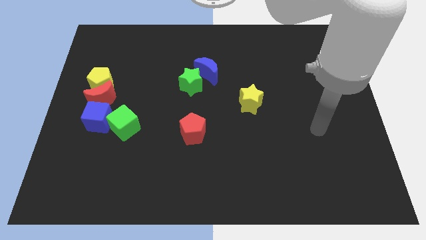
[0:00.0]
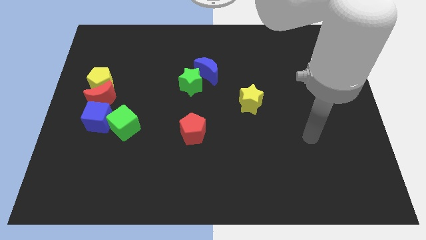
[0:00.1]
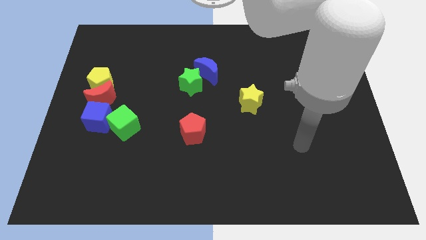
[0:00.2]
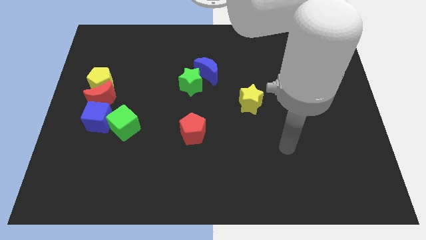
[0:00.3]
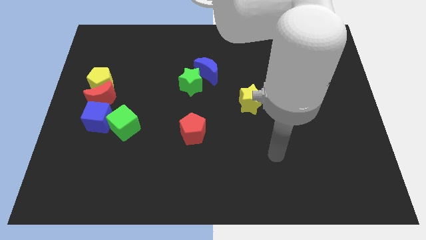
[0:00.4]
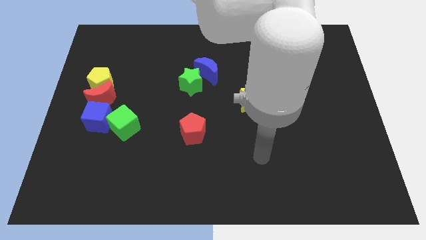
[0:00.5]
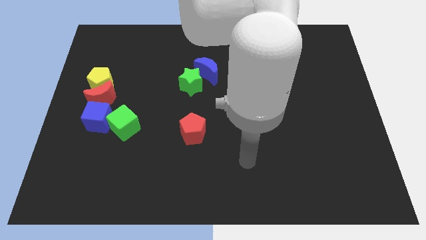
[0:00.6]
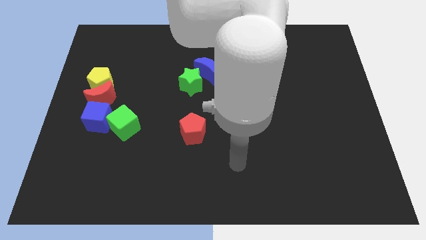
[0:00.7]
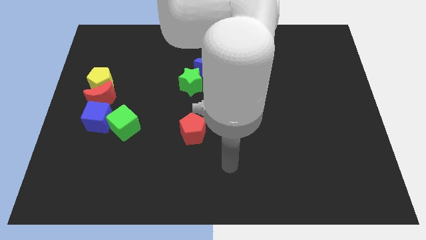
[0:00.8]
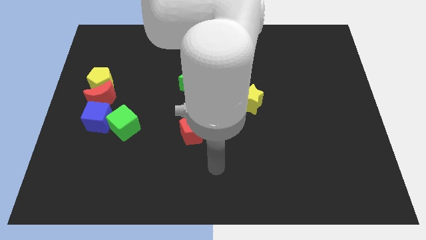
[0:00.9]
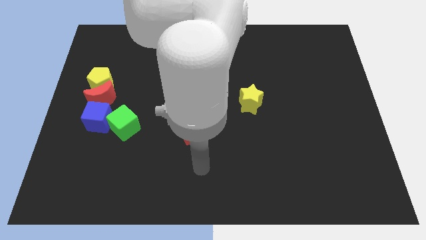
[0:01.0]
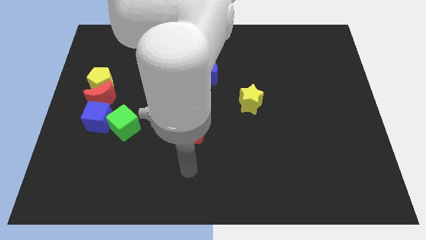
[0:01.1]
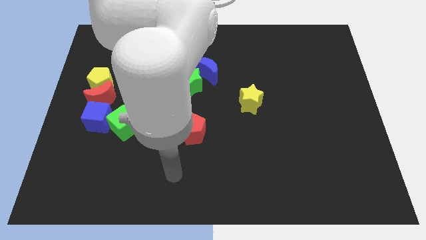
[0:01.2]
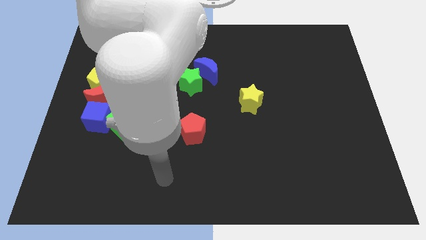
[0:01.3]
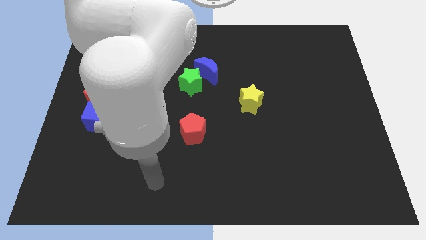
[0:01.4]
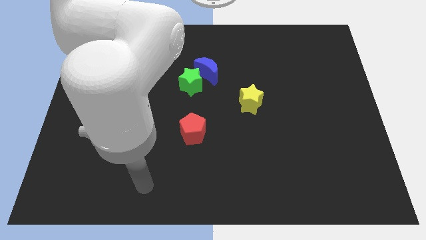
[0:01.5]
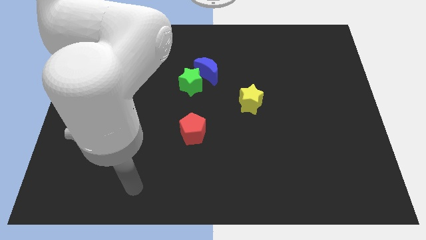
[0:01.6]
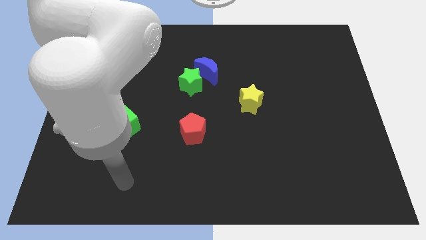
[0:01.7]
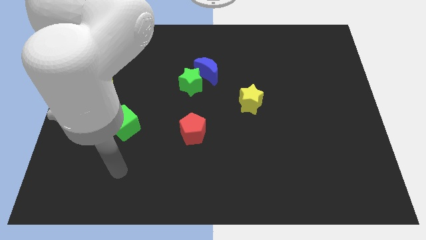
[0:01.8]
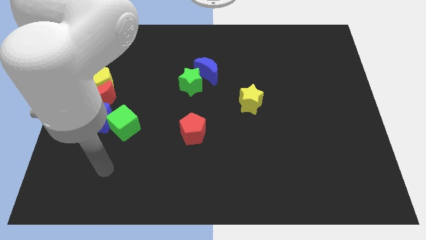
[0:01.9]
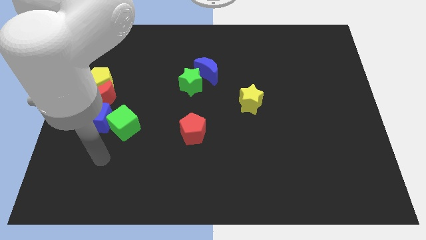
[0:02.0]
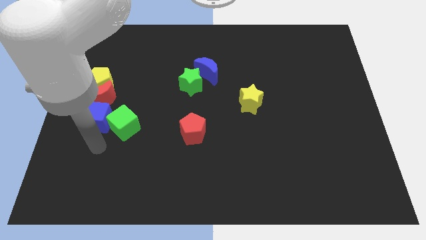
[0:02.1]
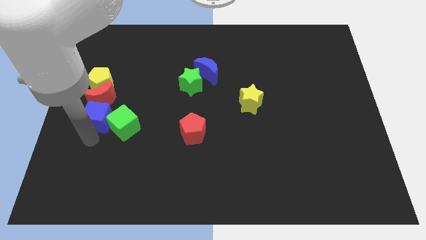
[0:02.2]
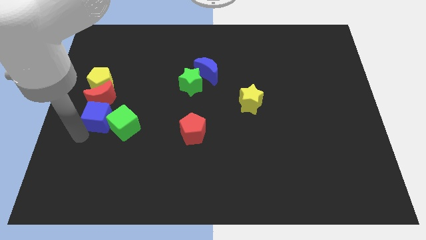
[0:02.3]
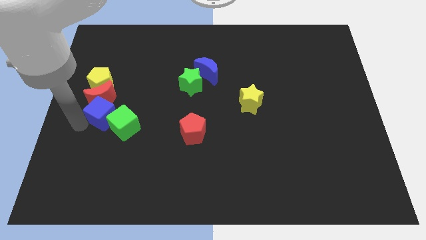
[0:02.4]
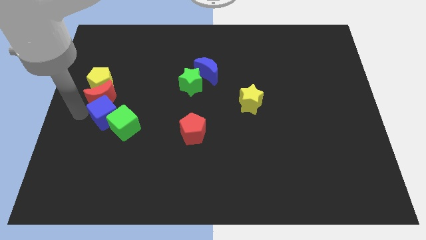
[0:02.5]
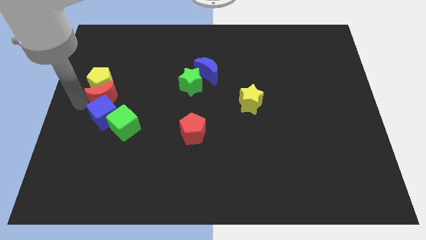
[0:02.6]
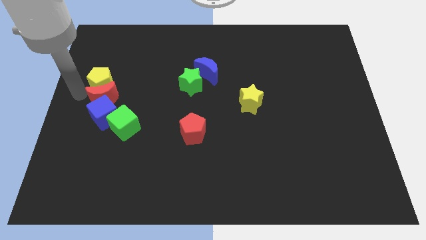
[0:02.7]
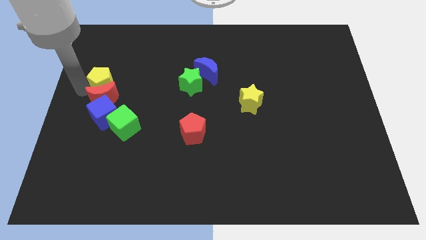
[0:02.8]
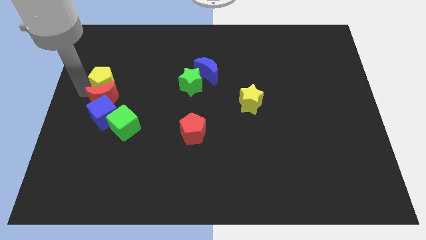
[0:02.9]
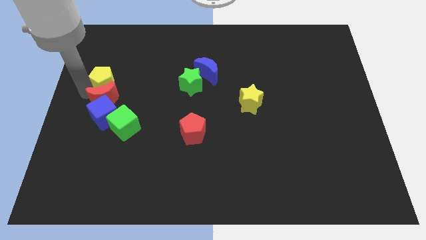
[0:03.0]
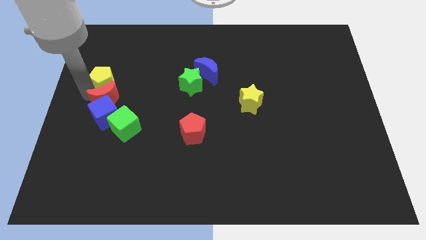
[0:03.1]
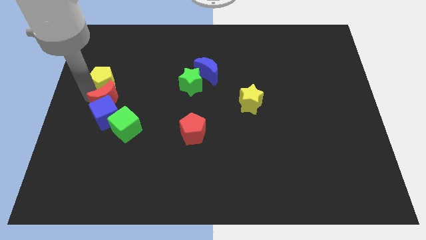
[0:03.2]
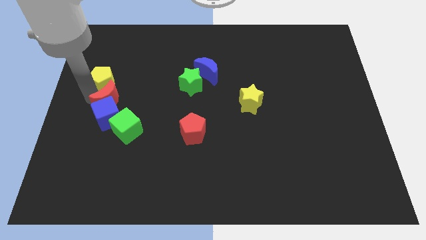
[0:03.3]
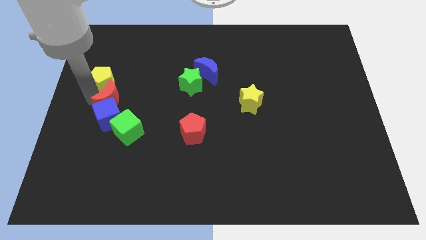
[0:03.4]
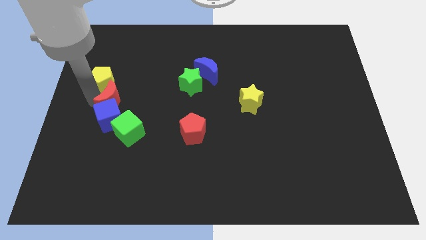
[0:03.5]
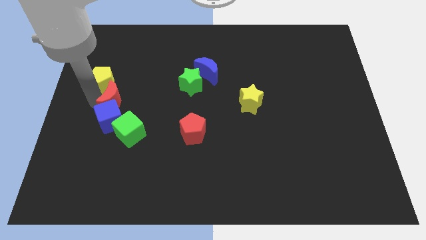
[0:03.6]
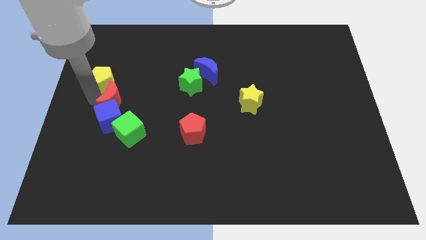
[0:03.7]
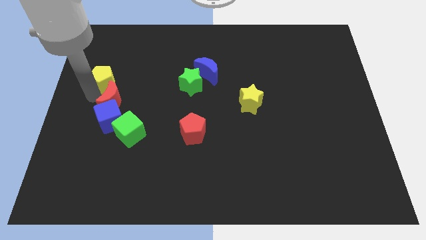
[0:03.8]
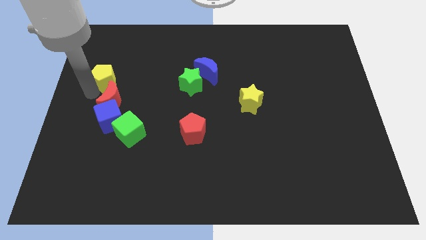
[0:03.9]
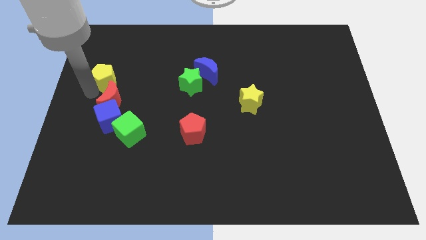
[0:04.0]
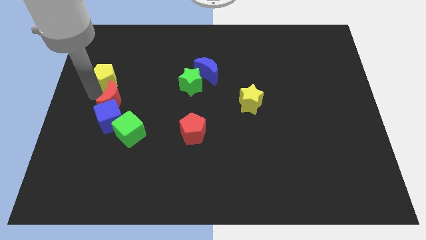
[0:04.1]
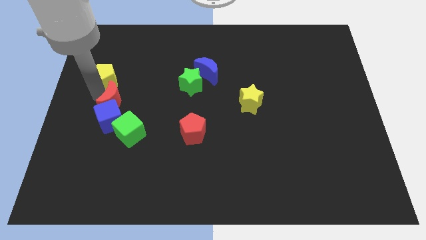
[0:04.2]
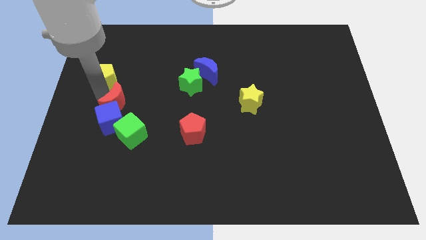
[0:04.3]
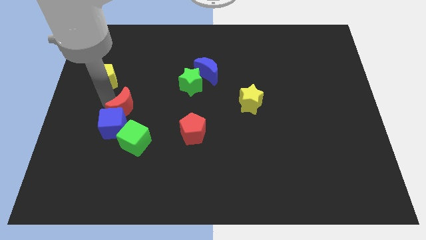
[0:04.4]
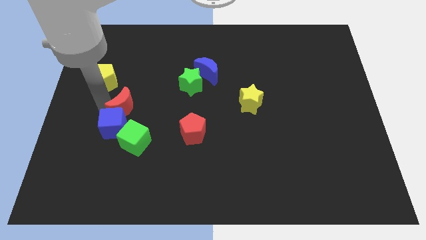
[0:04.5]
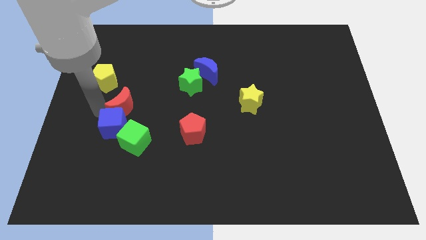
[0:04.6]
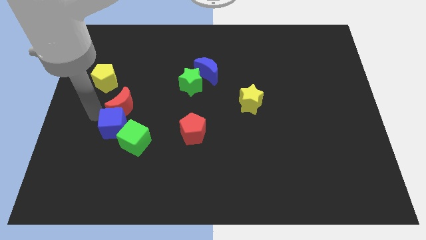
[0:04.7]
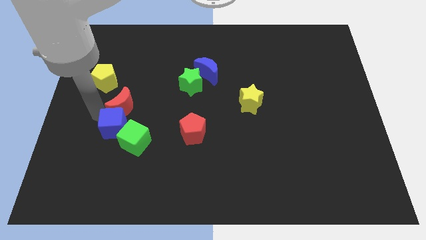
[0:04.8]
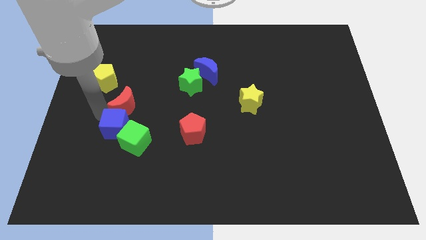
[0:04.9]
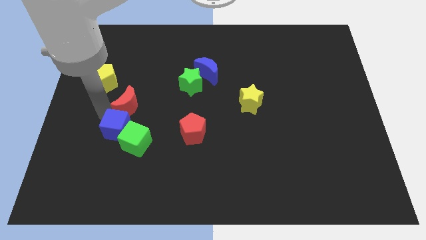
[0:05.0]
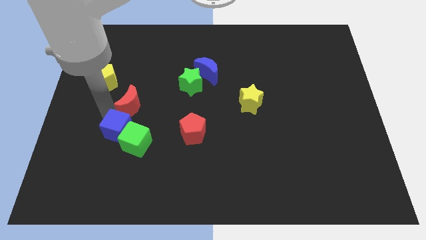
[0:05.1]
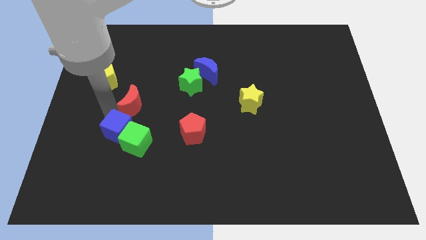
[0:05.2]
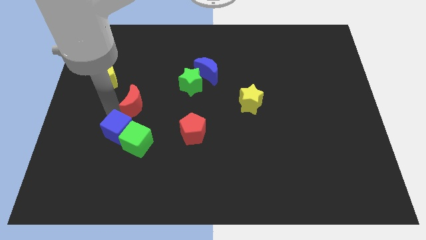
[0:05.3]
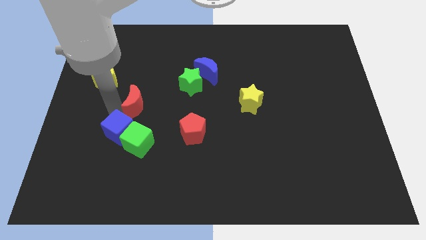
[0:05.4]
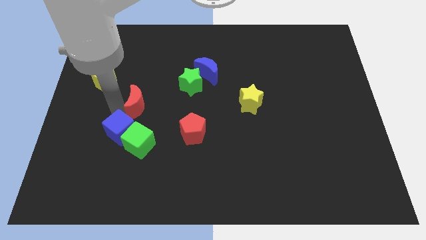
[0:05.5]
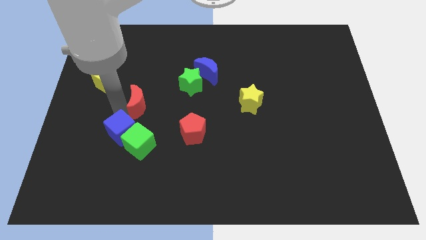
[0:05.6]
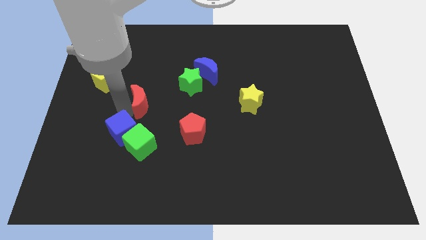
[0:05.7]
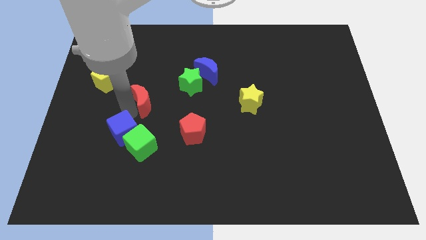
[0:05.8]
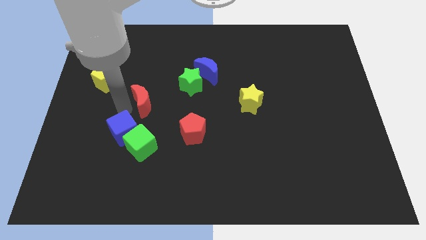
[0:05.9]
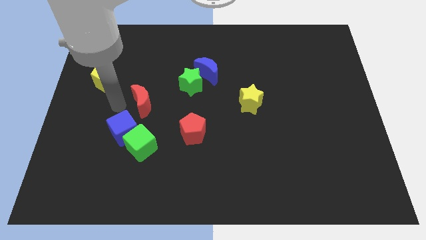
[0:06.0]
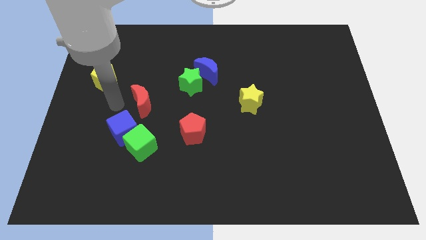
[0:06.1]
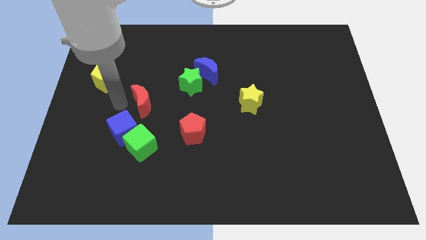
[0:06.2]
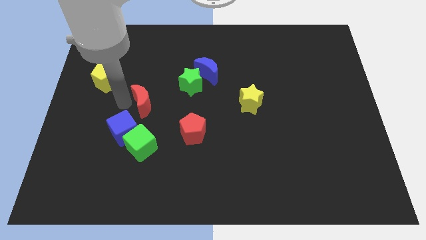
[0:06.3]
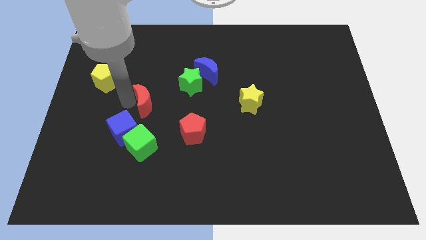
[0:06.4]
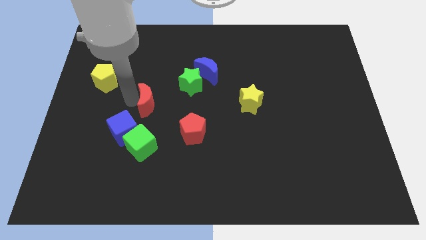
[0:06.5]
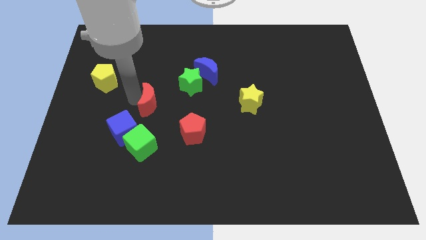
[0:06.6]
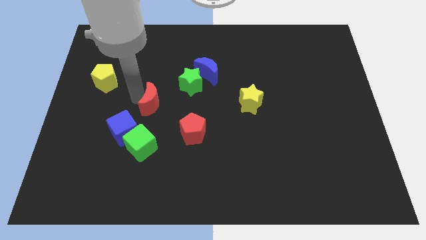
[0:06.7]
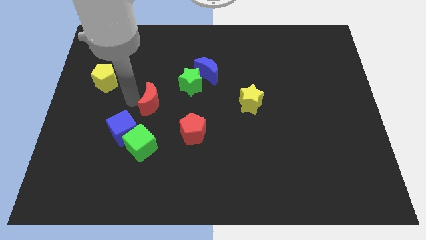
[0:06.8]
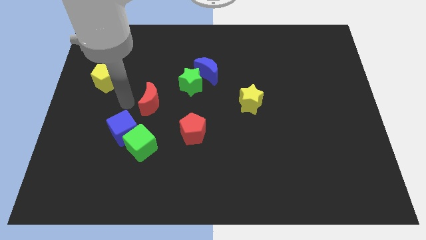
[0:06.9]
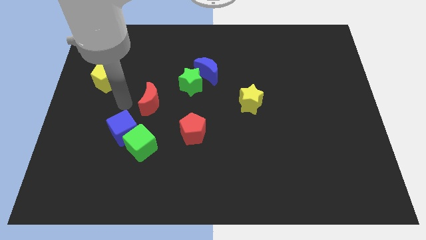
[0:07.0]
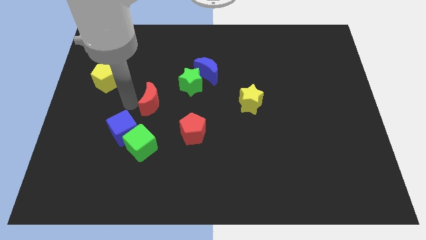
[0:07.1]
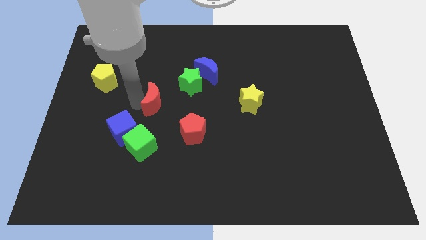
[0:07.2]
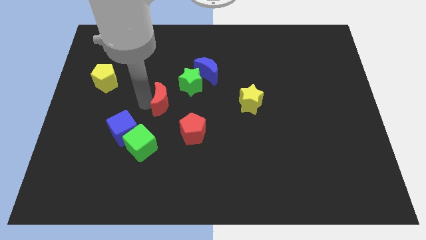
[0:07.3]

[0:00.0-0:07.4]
move the red moon to the middle

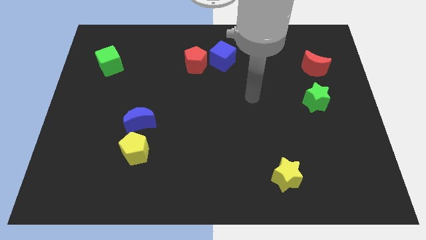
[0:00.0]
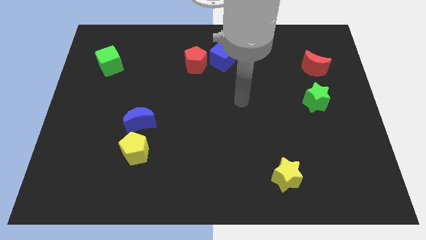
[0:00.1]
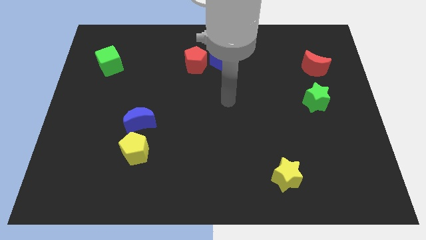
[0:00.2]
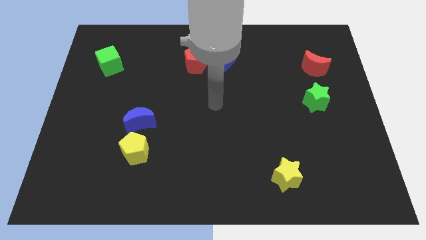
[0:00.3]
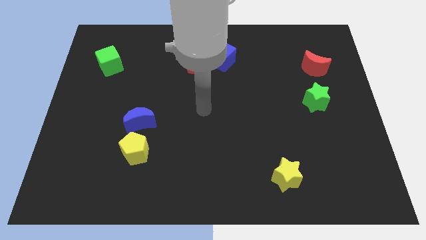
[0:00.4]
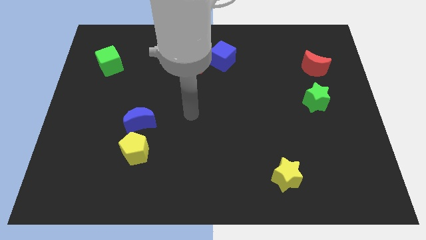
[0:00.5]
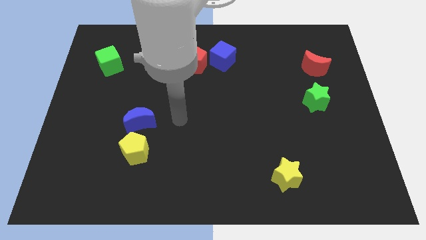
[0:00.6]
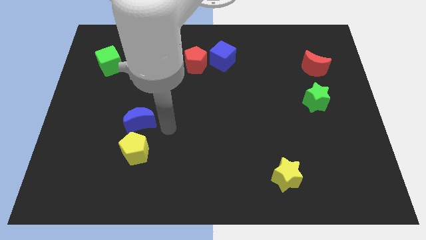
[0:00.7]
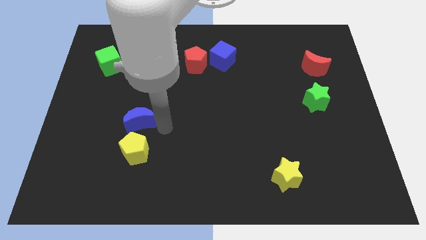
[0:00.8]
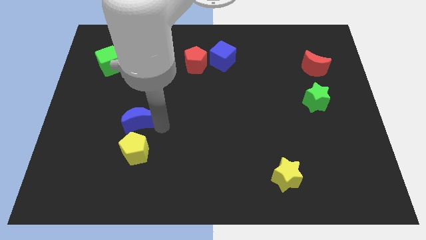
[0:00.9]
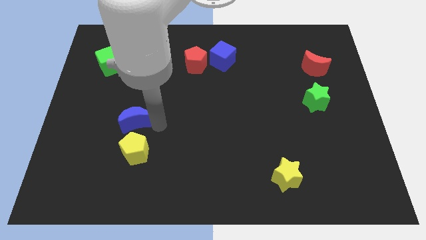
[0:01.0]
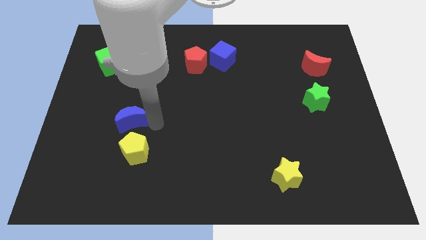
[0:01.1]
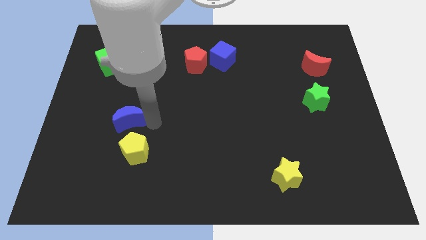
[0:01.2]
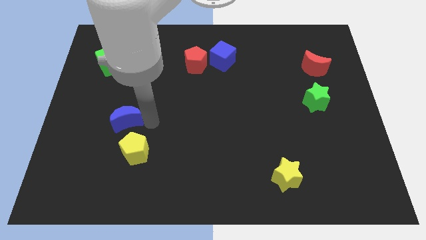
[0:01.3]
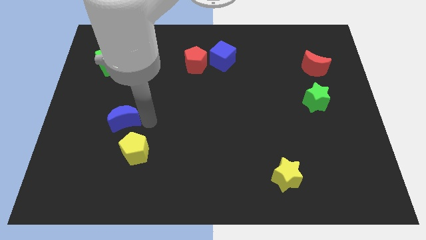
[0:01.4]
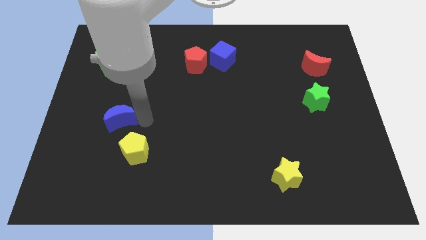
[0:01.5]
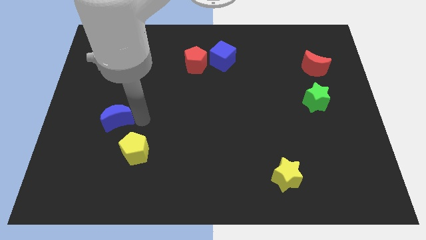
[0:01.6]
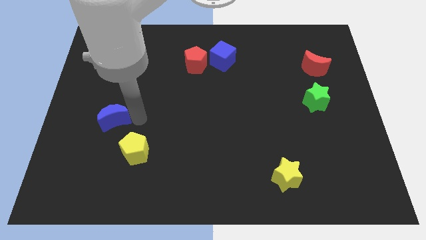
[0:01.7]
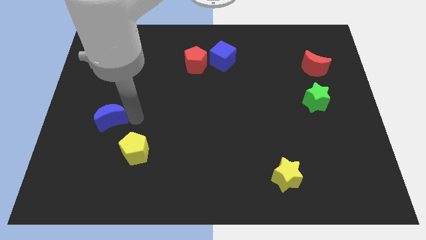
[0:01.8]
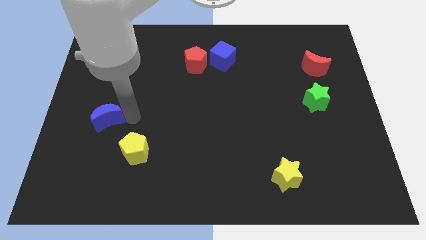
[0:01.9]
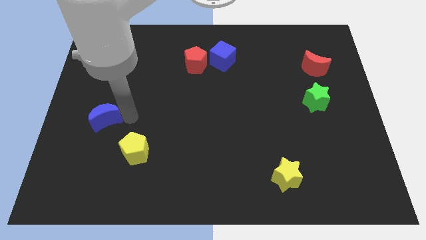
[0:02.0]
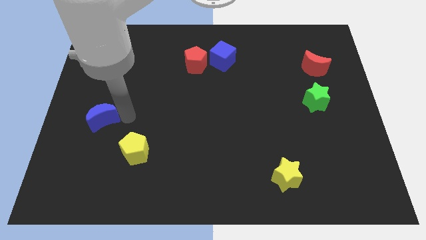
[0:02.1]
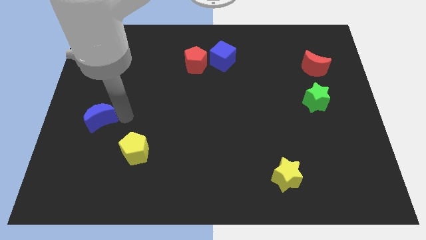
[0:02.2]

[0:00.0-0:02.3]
move the blue moon to the left side of the board
